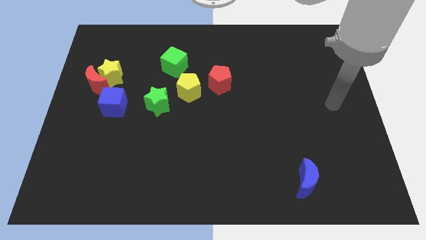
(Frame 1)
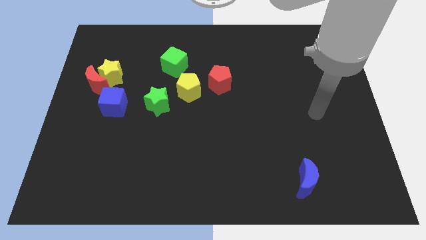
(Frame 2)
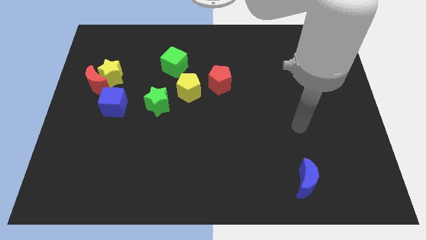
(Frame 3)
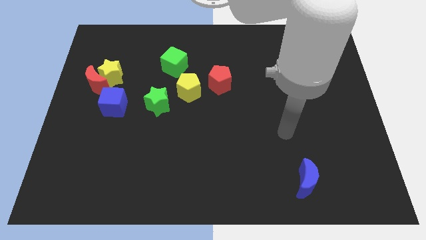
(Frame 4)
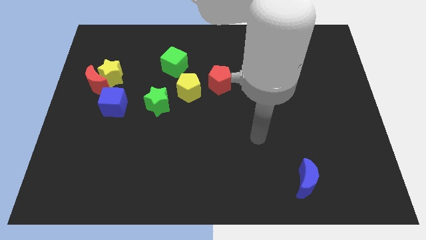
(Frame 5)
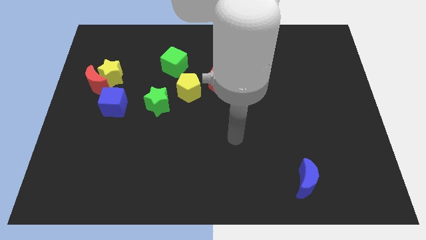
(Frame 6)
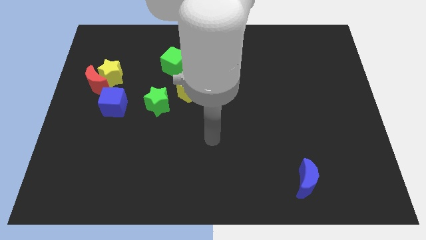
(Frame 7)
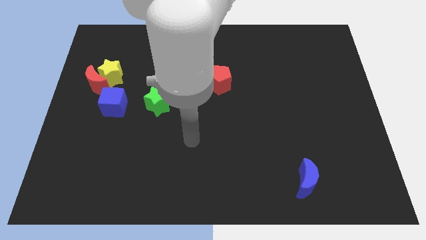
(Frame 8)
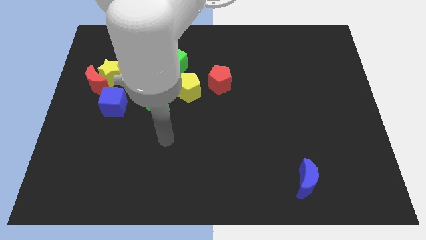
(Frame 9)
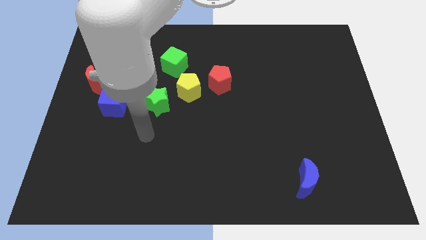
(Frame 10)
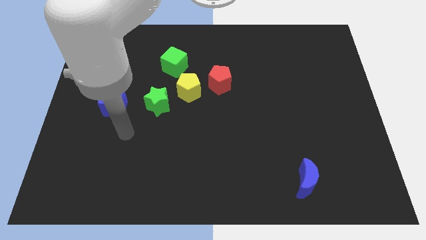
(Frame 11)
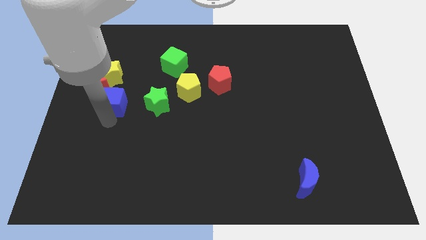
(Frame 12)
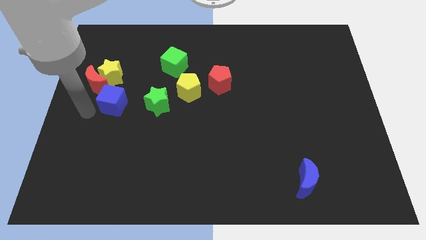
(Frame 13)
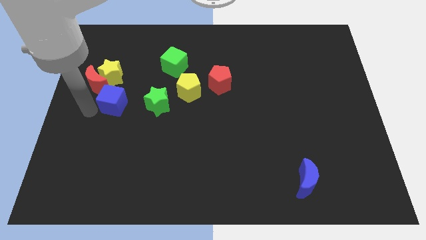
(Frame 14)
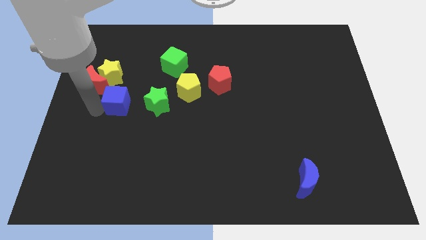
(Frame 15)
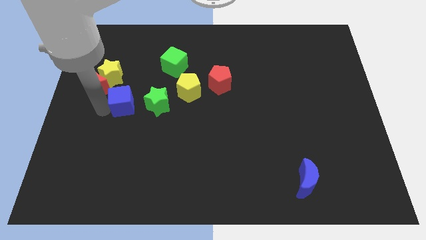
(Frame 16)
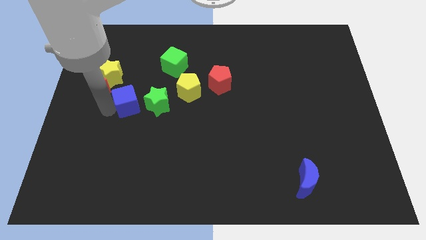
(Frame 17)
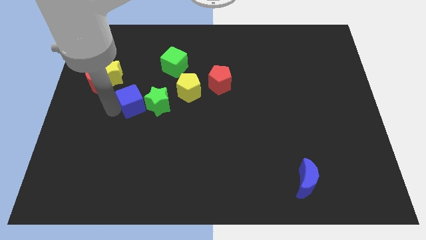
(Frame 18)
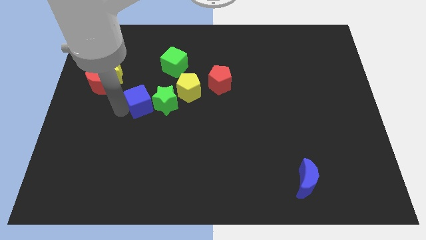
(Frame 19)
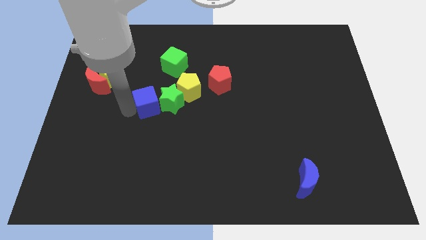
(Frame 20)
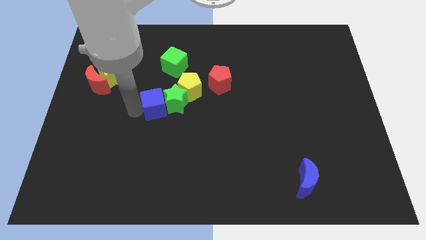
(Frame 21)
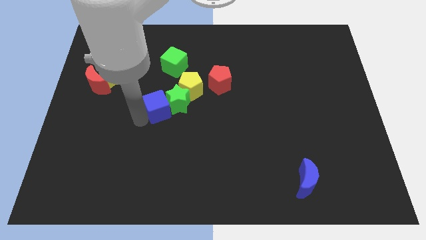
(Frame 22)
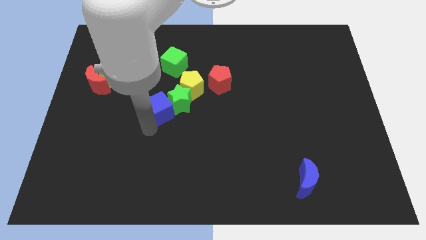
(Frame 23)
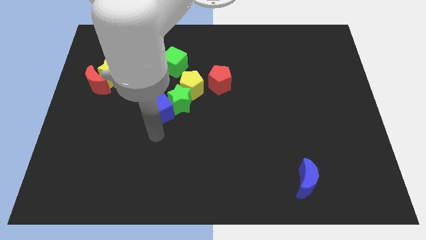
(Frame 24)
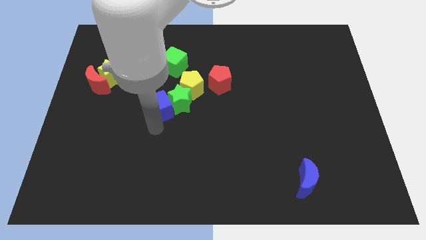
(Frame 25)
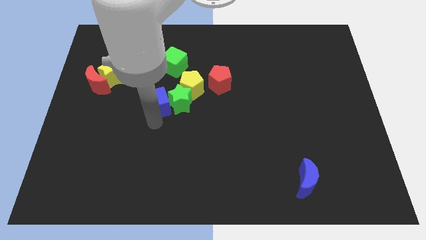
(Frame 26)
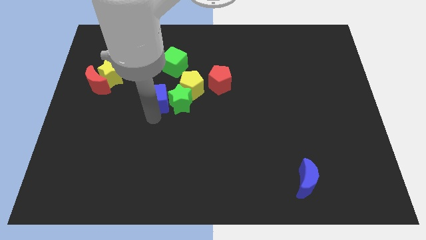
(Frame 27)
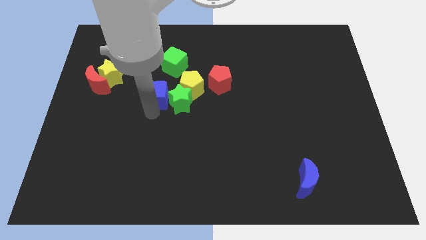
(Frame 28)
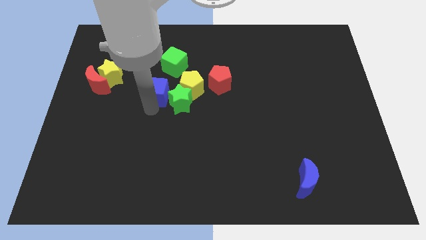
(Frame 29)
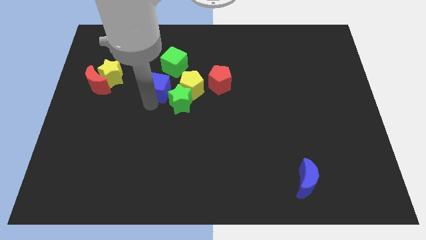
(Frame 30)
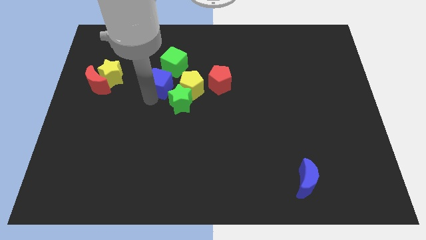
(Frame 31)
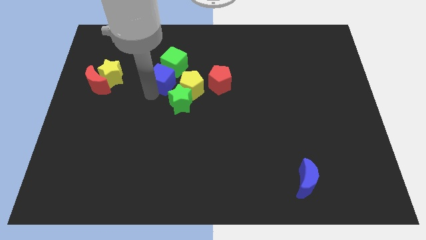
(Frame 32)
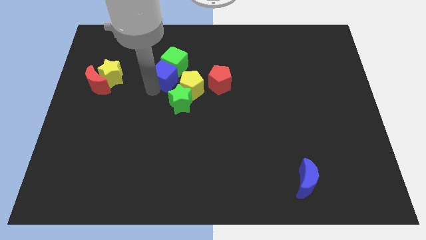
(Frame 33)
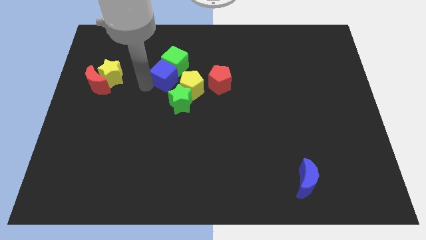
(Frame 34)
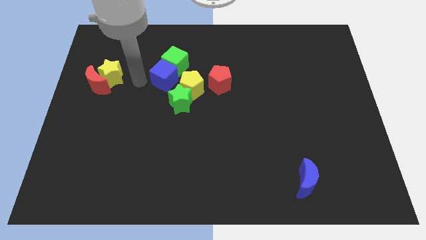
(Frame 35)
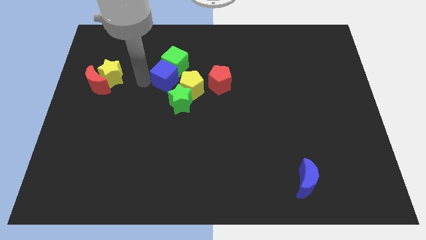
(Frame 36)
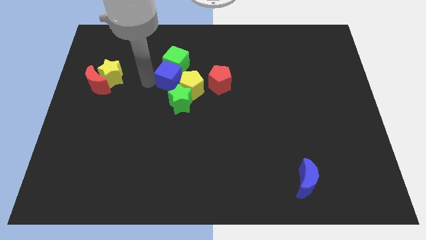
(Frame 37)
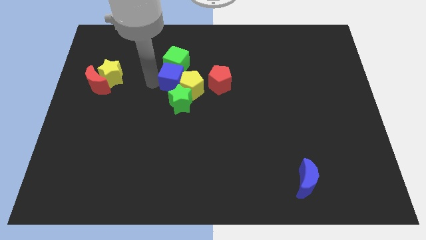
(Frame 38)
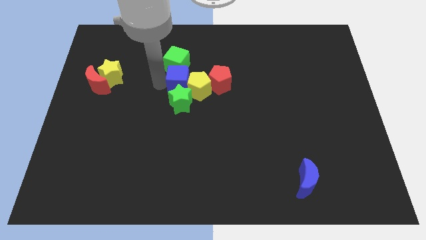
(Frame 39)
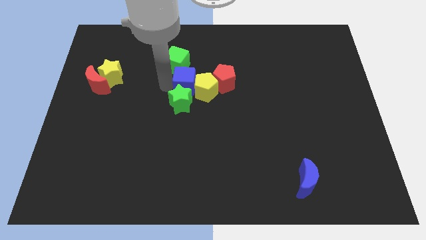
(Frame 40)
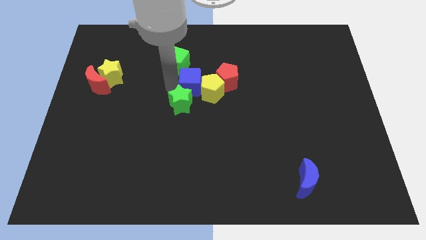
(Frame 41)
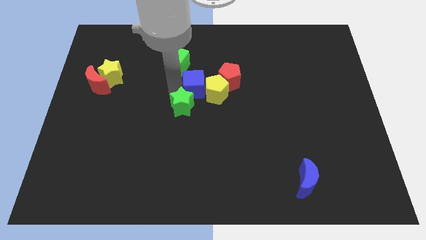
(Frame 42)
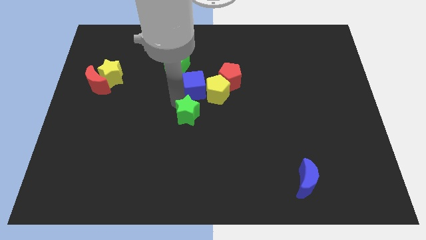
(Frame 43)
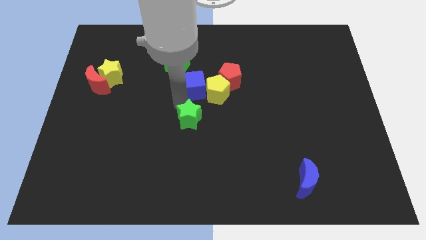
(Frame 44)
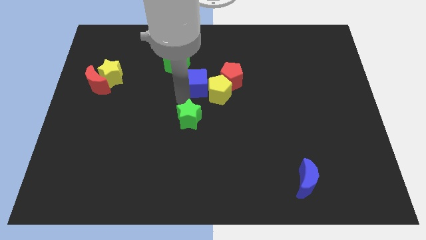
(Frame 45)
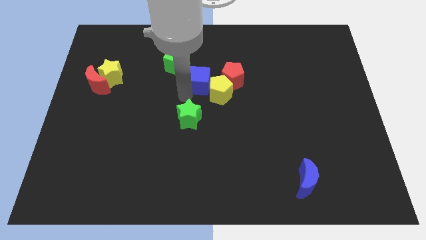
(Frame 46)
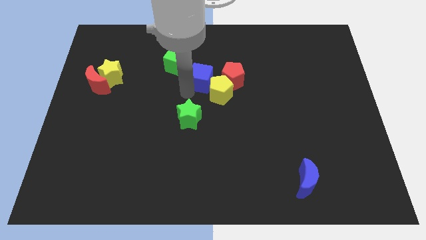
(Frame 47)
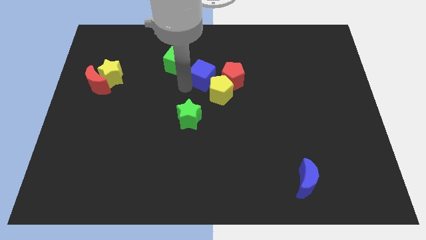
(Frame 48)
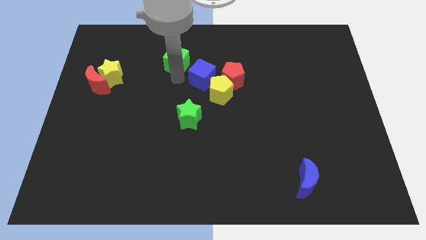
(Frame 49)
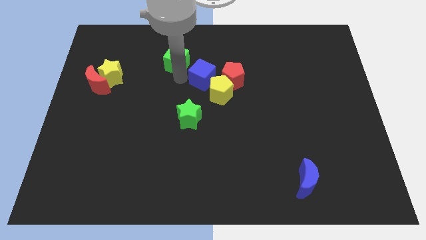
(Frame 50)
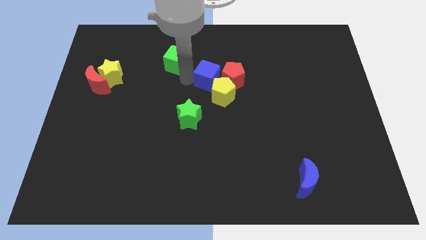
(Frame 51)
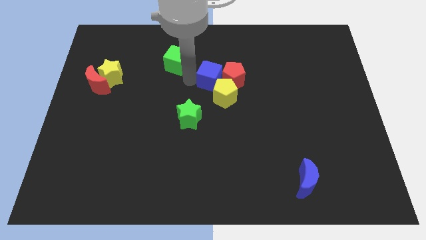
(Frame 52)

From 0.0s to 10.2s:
move the blue cube to the red pentagon

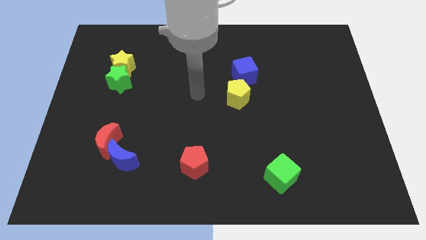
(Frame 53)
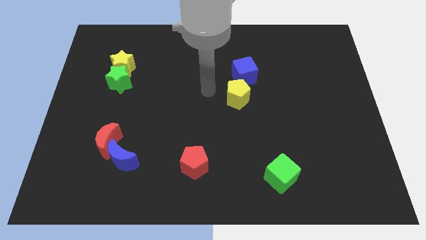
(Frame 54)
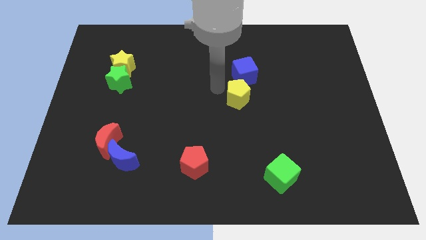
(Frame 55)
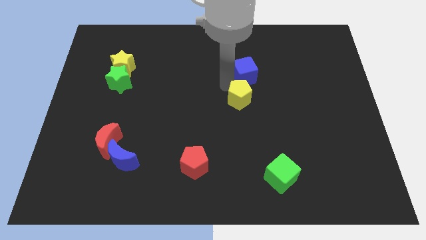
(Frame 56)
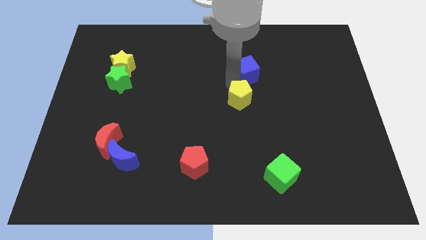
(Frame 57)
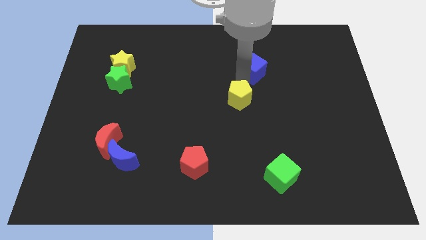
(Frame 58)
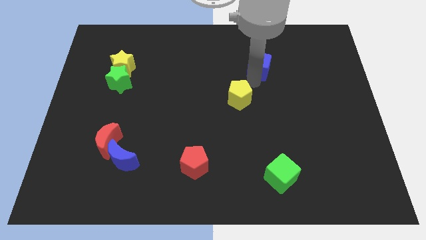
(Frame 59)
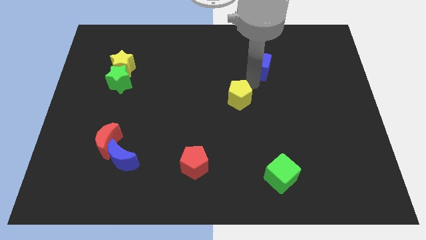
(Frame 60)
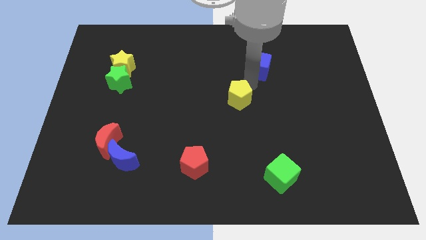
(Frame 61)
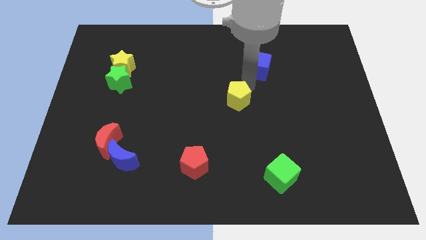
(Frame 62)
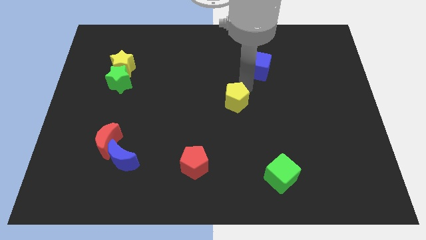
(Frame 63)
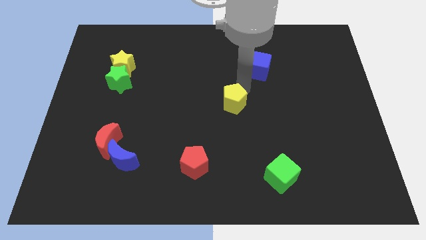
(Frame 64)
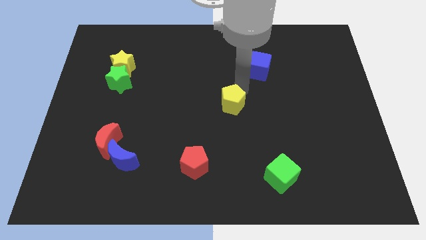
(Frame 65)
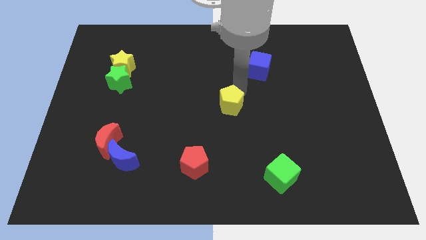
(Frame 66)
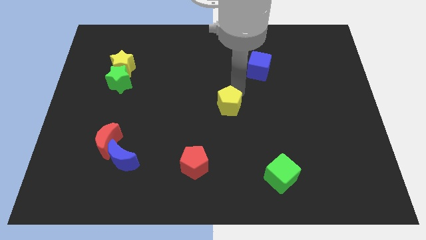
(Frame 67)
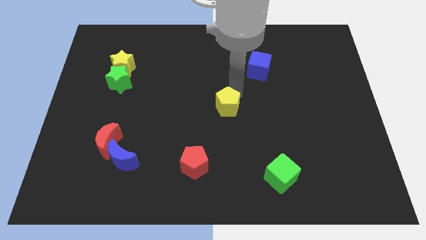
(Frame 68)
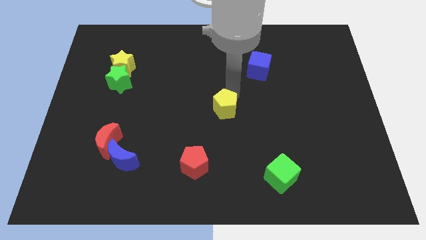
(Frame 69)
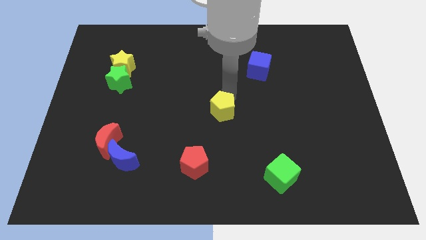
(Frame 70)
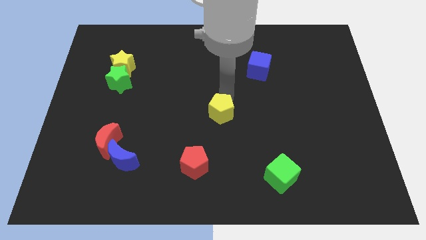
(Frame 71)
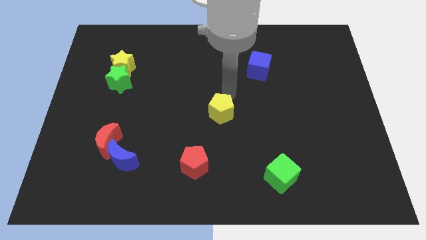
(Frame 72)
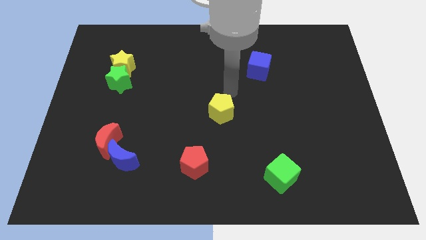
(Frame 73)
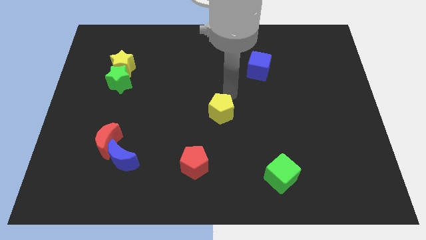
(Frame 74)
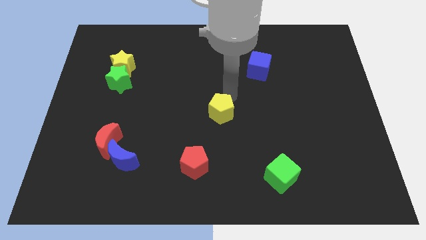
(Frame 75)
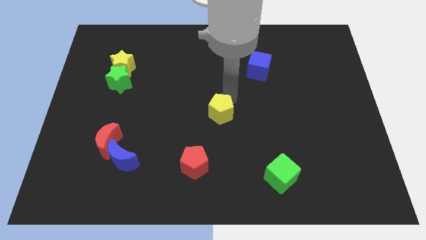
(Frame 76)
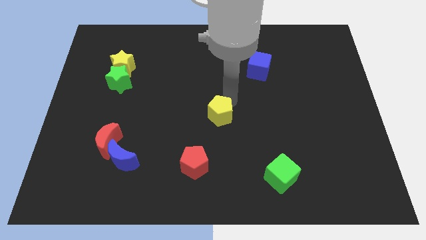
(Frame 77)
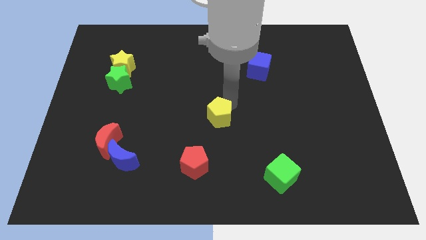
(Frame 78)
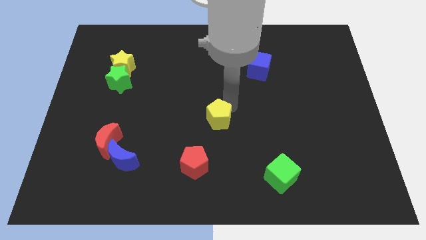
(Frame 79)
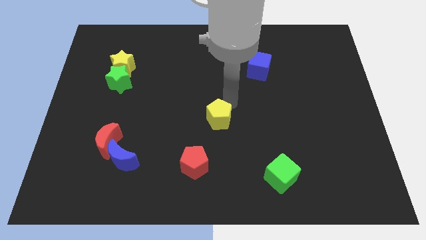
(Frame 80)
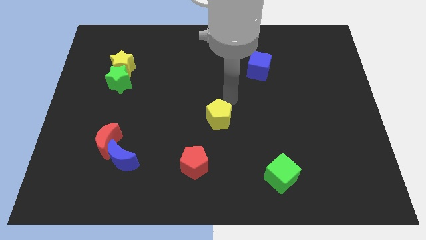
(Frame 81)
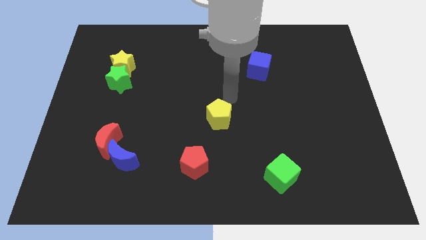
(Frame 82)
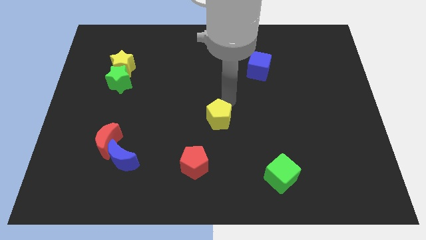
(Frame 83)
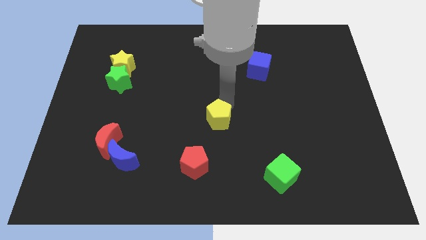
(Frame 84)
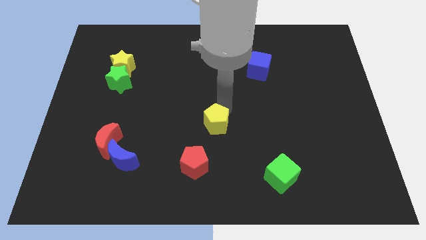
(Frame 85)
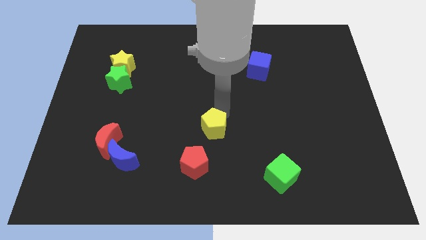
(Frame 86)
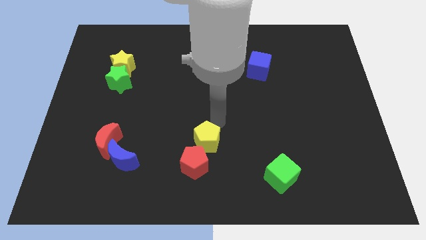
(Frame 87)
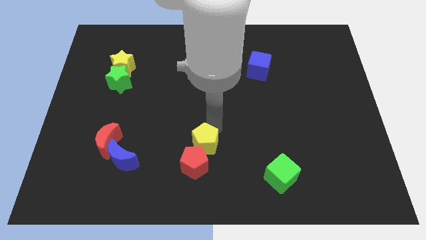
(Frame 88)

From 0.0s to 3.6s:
put the yellow pentagon close to the red pentagon
